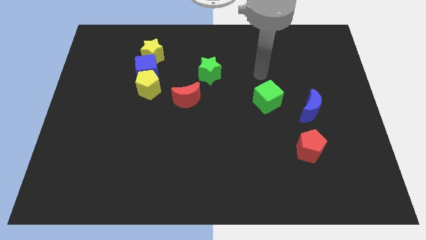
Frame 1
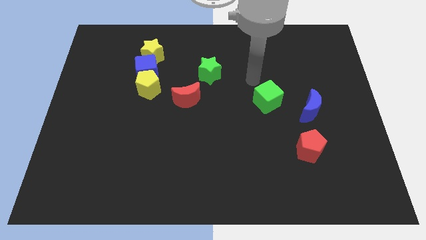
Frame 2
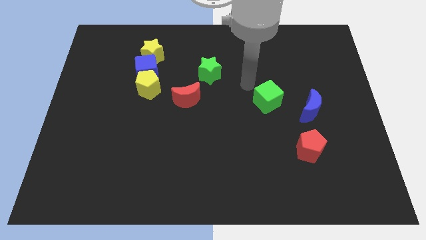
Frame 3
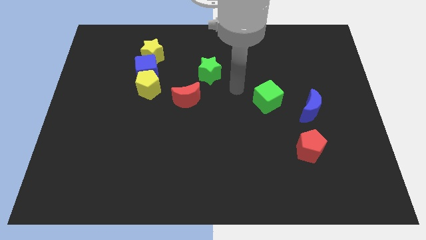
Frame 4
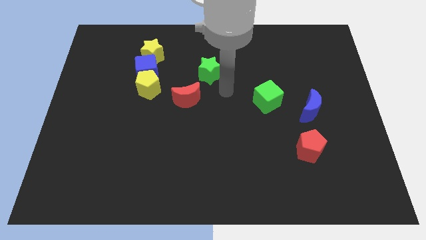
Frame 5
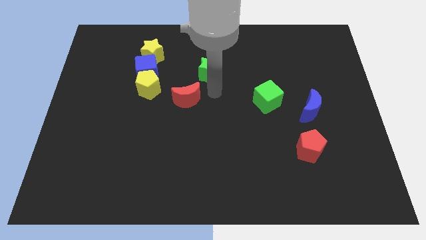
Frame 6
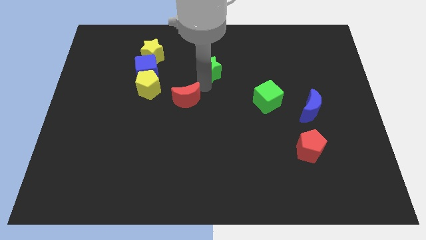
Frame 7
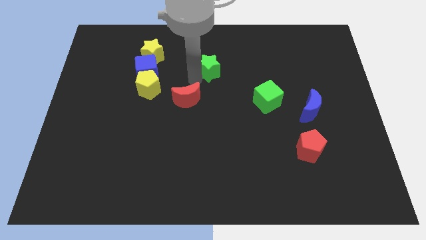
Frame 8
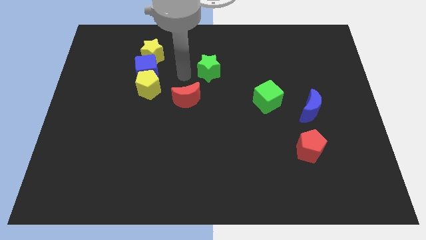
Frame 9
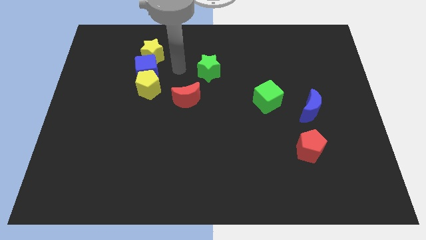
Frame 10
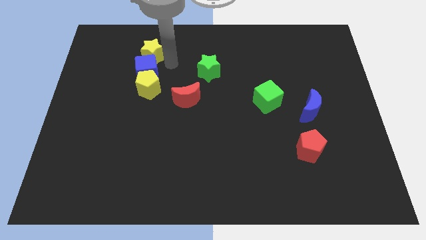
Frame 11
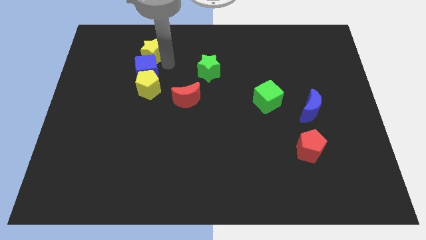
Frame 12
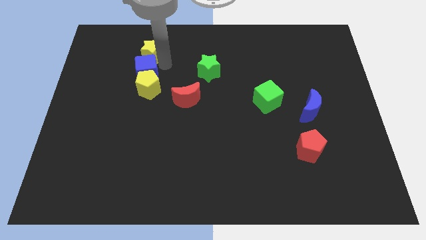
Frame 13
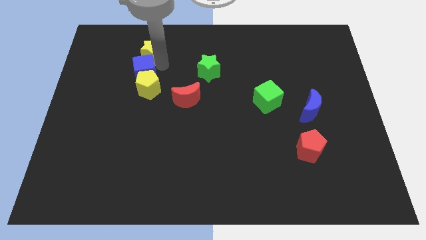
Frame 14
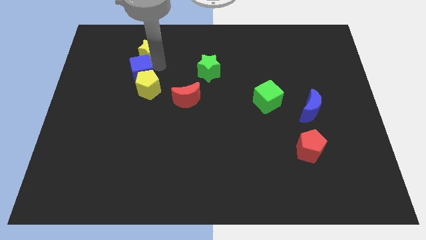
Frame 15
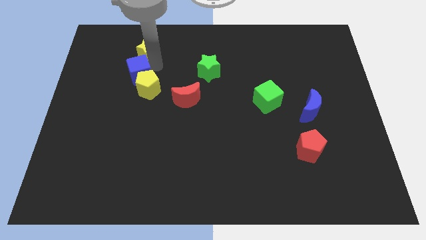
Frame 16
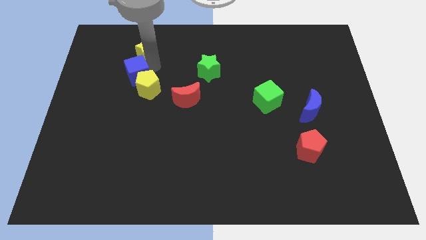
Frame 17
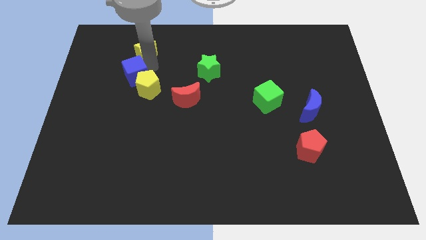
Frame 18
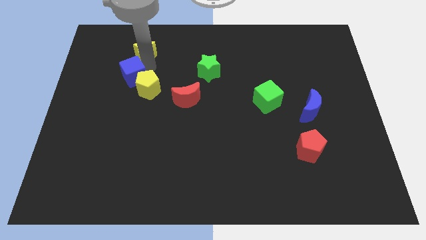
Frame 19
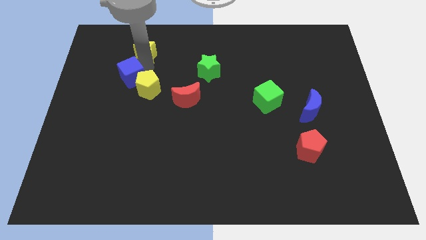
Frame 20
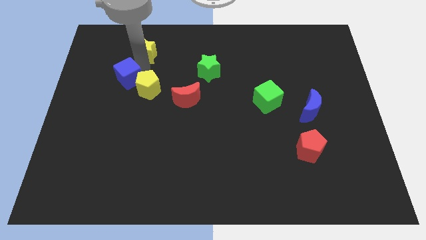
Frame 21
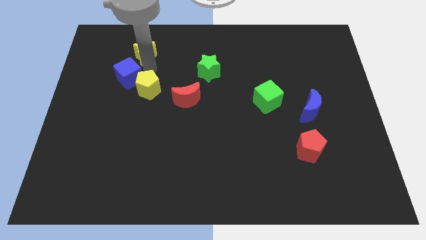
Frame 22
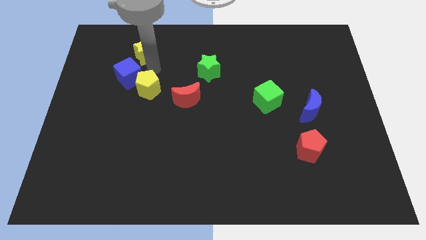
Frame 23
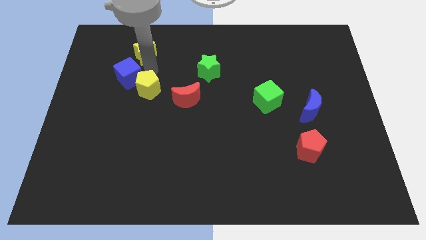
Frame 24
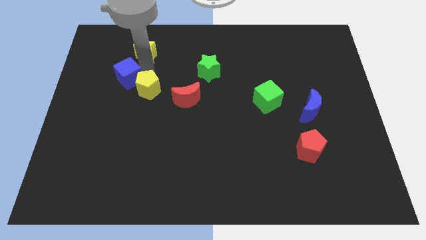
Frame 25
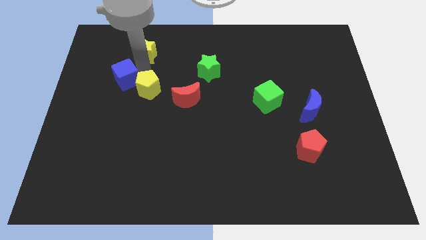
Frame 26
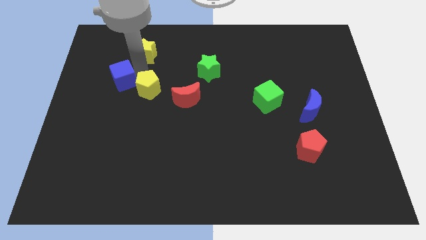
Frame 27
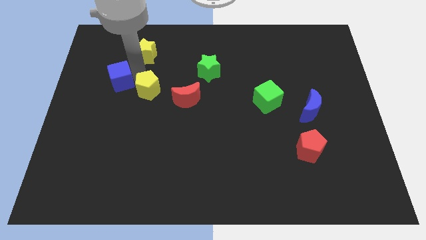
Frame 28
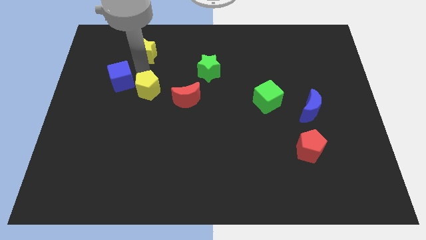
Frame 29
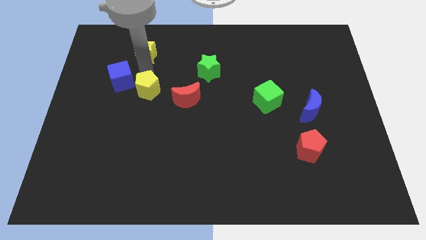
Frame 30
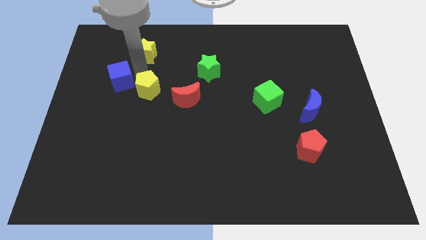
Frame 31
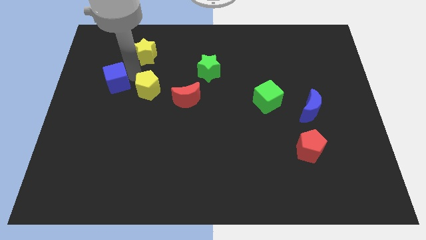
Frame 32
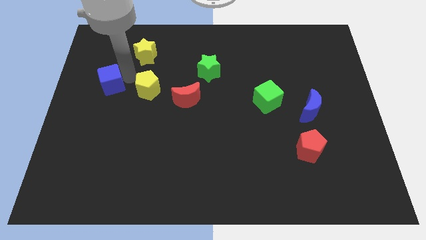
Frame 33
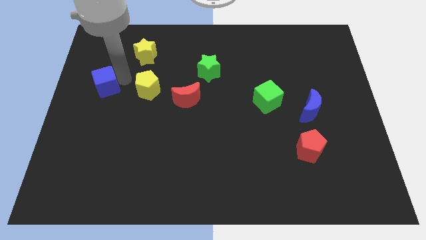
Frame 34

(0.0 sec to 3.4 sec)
separate the blue cube from the yellow pentagon and yellow star

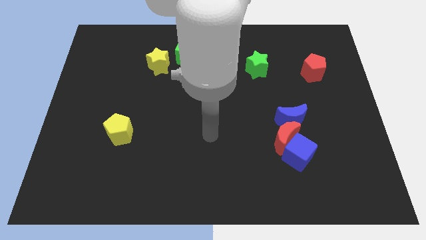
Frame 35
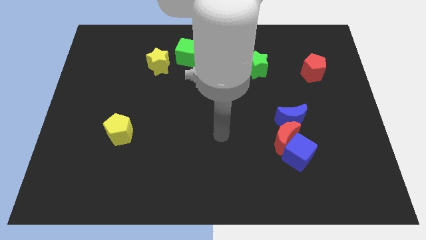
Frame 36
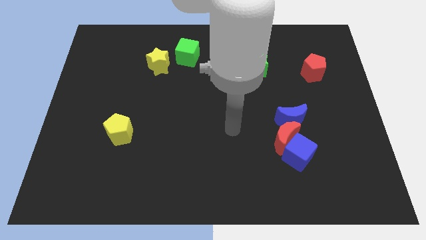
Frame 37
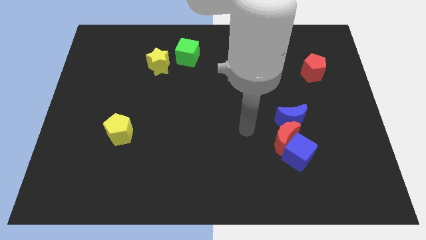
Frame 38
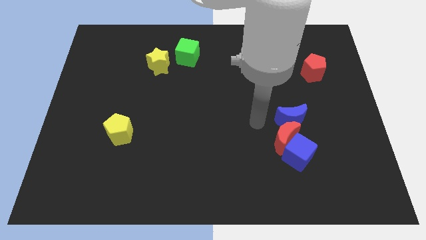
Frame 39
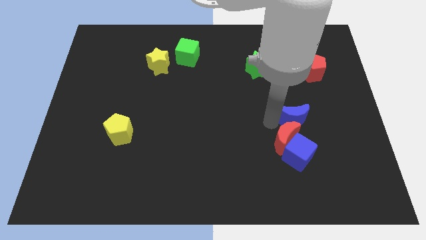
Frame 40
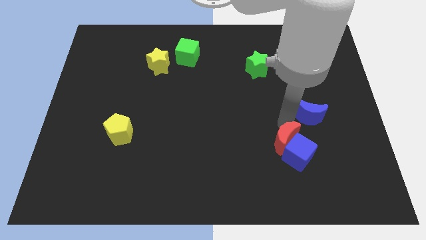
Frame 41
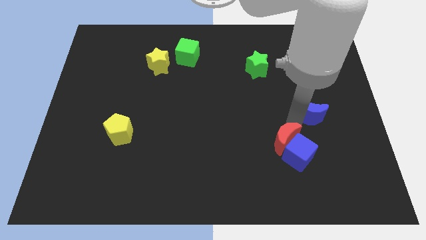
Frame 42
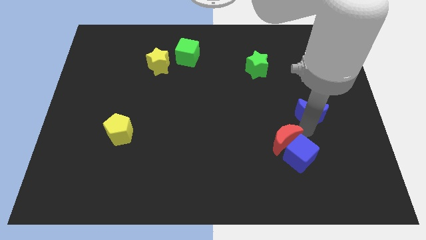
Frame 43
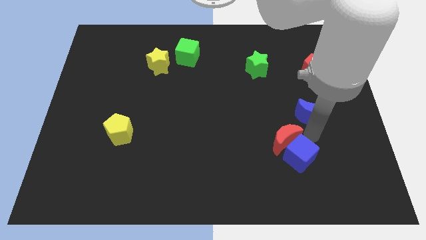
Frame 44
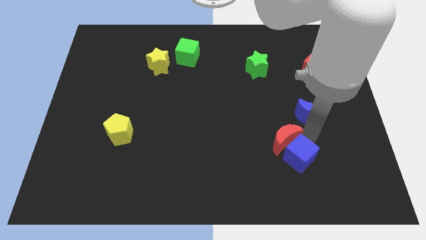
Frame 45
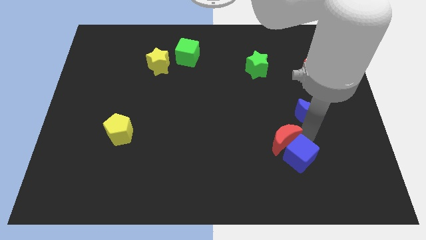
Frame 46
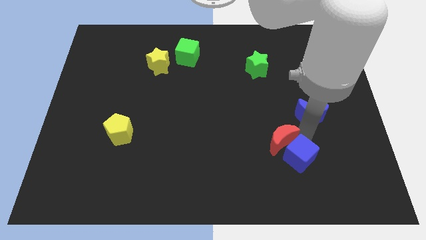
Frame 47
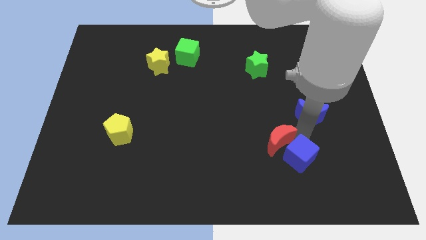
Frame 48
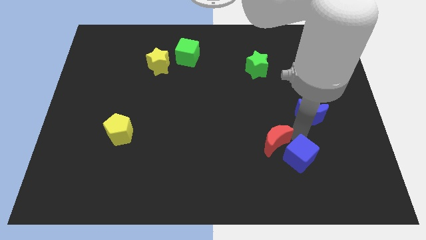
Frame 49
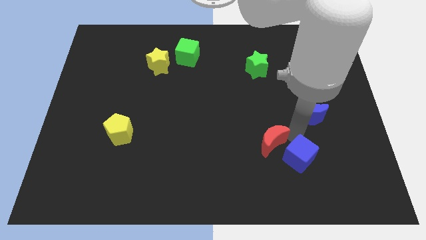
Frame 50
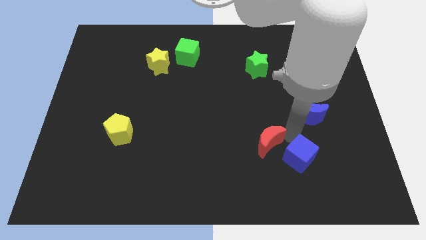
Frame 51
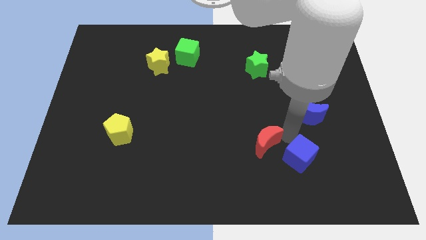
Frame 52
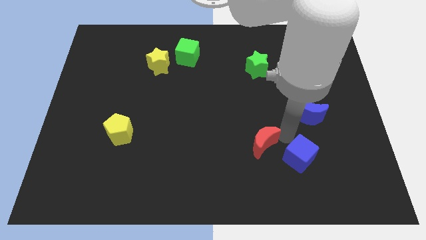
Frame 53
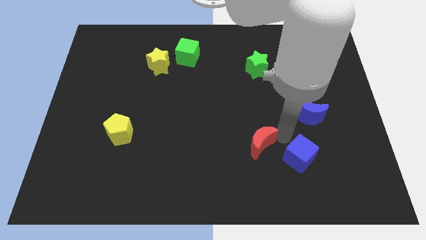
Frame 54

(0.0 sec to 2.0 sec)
move the red moon away from the blue cube and blue moon

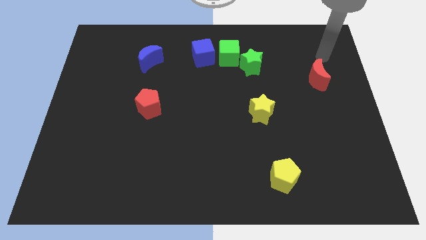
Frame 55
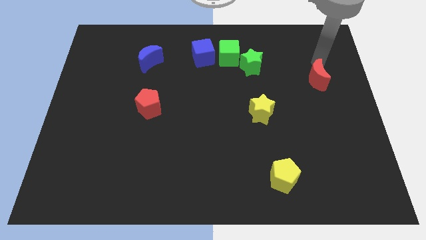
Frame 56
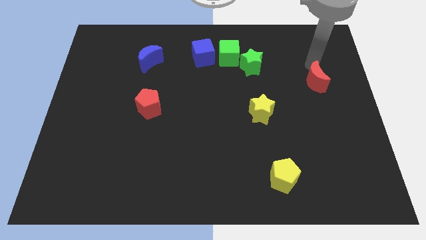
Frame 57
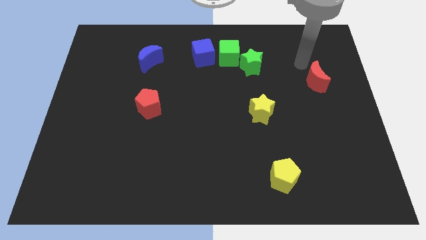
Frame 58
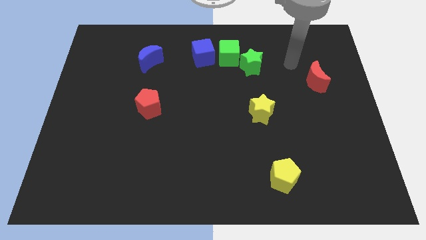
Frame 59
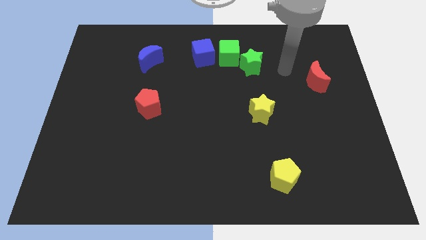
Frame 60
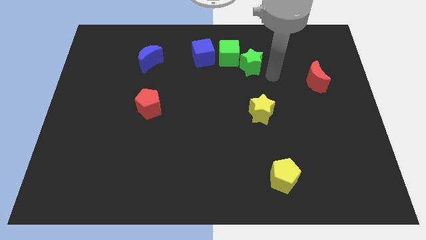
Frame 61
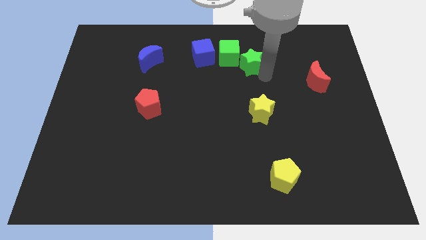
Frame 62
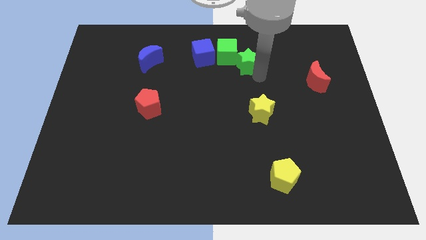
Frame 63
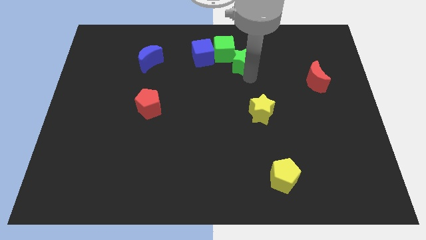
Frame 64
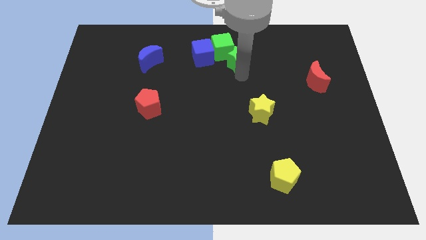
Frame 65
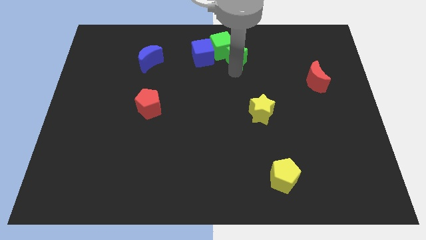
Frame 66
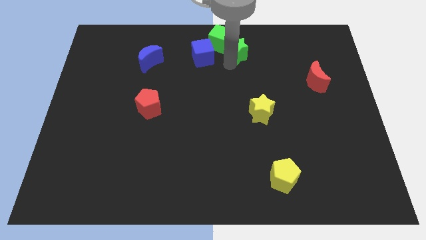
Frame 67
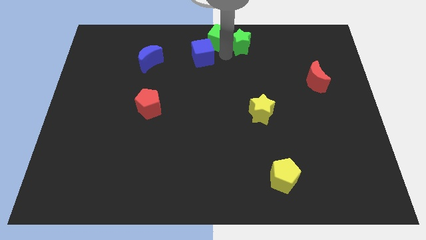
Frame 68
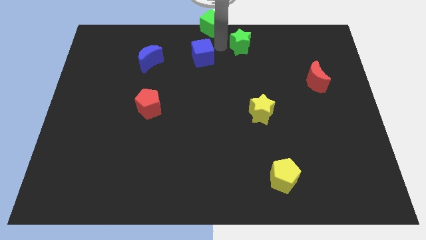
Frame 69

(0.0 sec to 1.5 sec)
move the green star away from the green cube

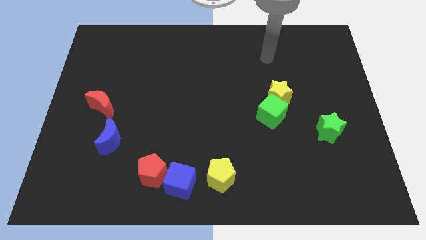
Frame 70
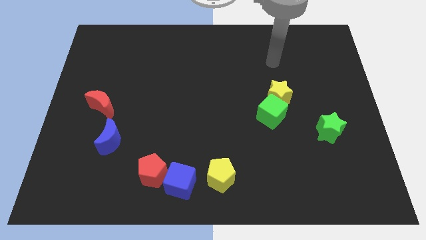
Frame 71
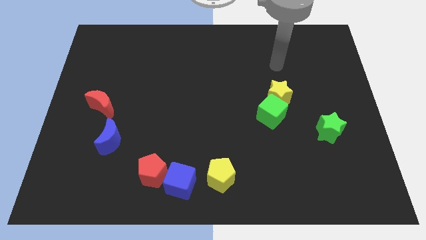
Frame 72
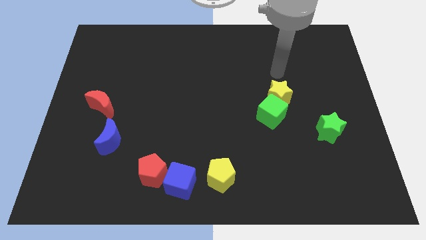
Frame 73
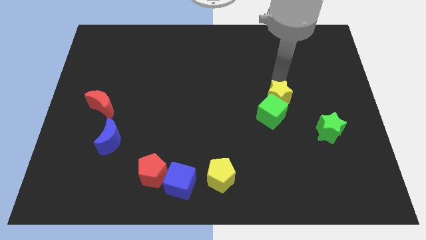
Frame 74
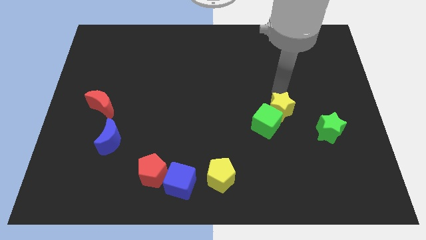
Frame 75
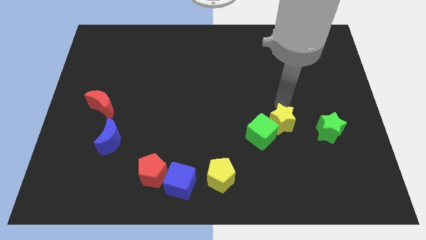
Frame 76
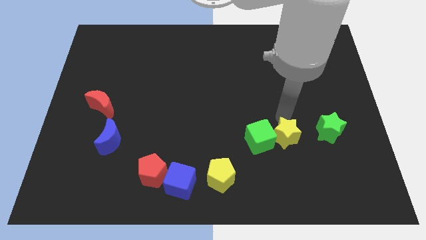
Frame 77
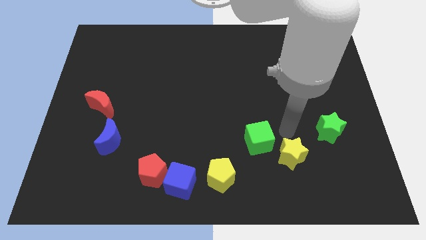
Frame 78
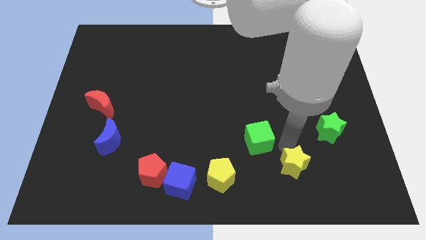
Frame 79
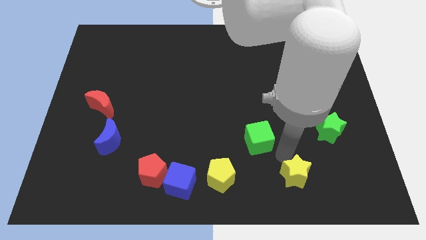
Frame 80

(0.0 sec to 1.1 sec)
pull the green cube apart from the yellow star

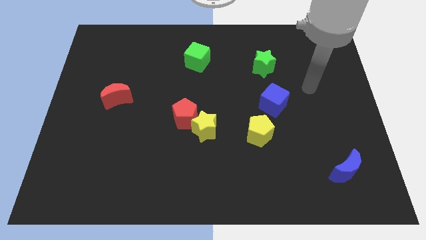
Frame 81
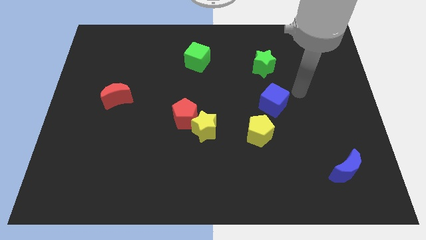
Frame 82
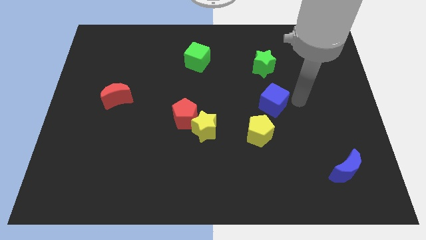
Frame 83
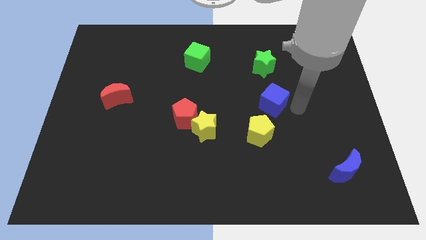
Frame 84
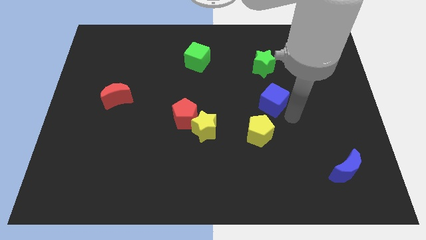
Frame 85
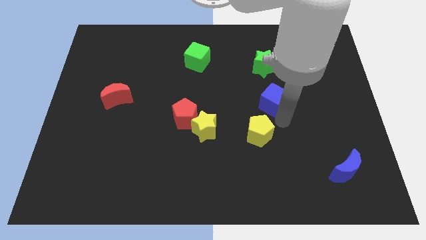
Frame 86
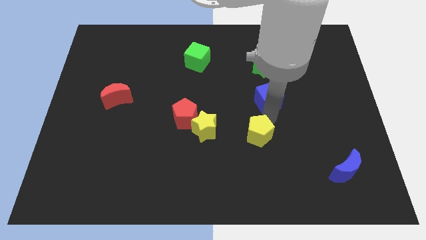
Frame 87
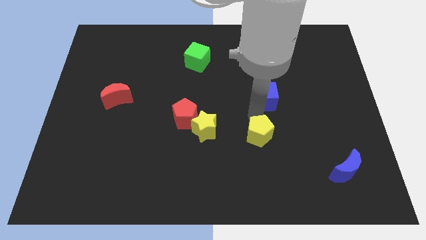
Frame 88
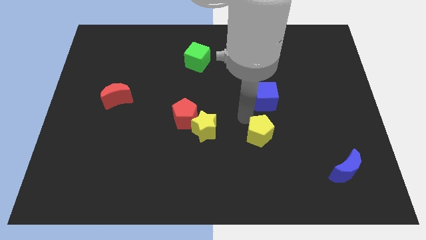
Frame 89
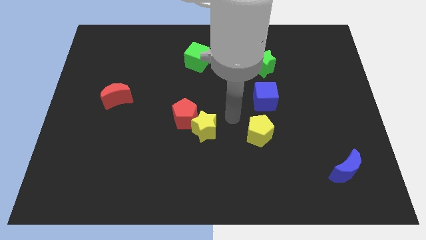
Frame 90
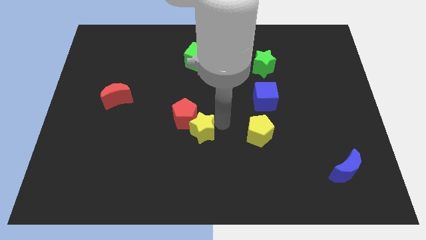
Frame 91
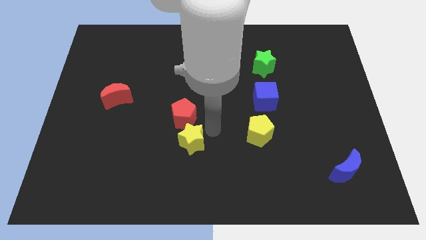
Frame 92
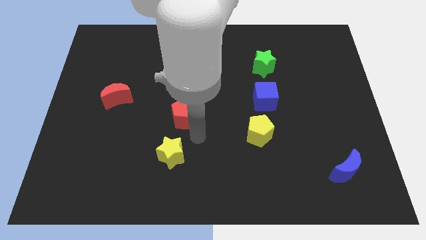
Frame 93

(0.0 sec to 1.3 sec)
separate the red pentagon from the yellow star
